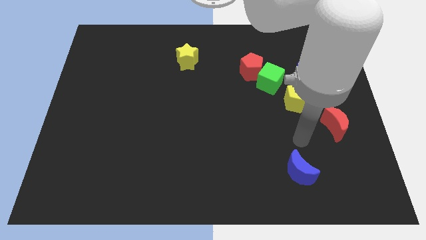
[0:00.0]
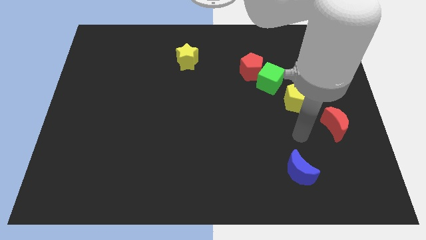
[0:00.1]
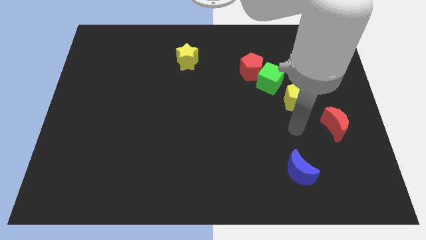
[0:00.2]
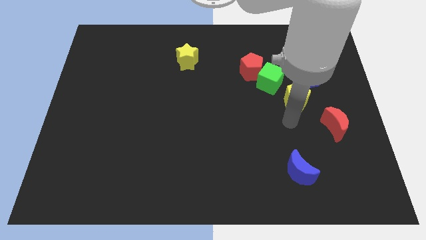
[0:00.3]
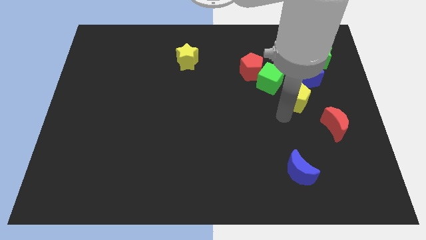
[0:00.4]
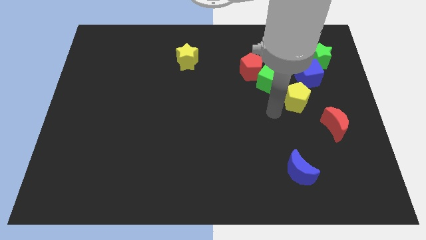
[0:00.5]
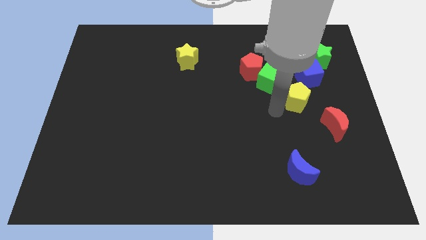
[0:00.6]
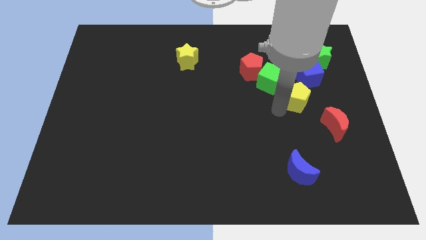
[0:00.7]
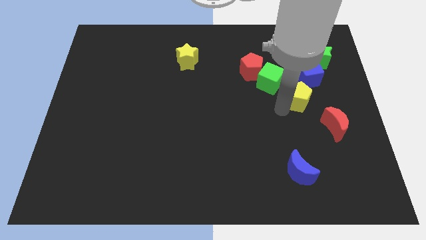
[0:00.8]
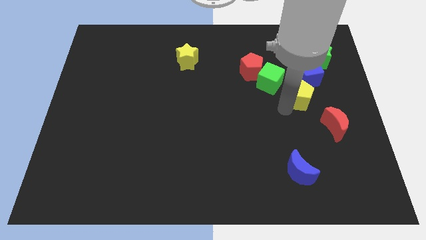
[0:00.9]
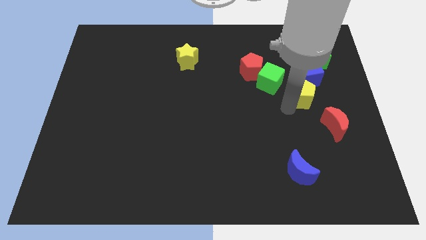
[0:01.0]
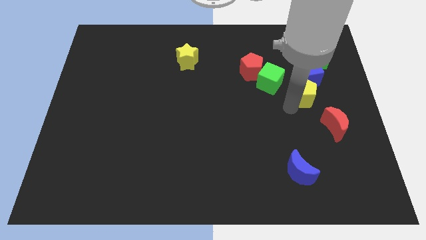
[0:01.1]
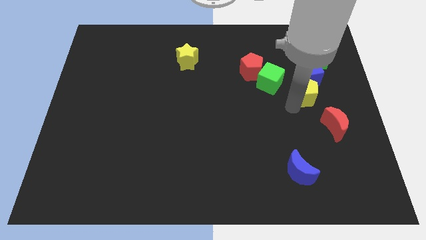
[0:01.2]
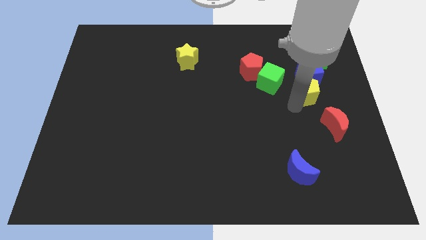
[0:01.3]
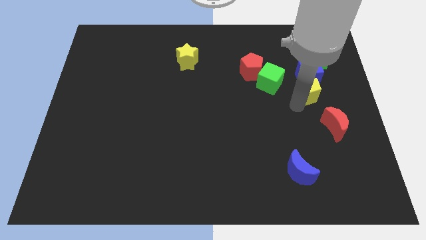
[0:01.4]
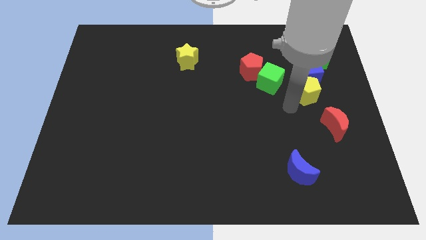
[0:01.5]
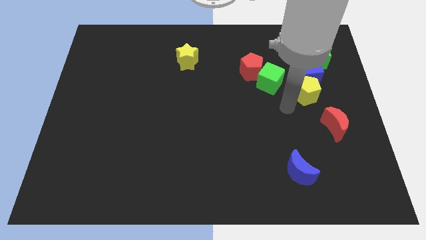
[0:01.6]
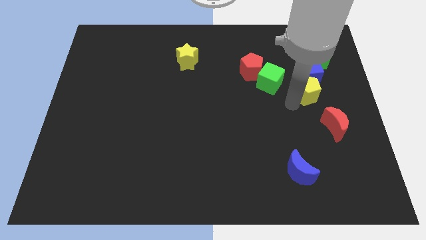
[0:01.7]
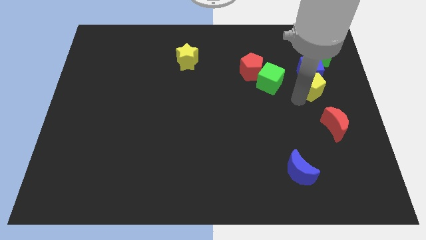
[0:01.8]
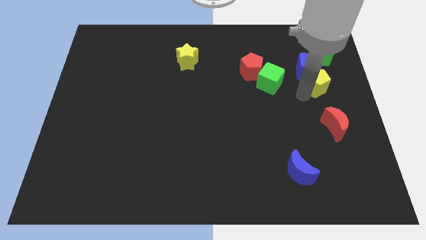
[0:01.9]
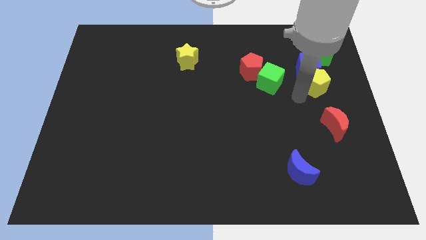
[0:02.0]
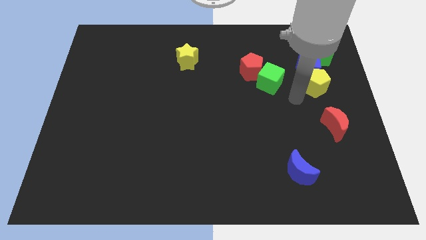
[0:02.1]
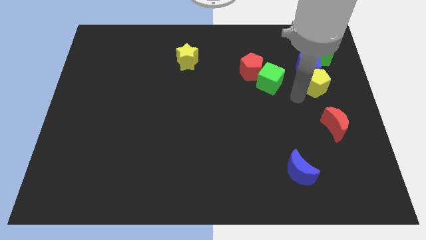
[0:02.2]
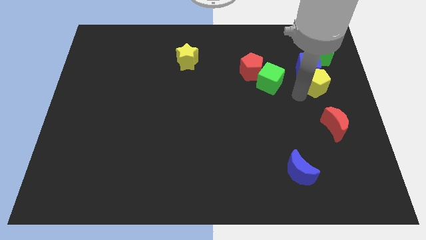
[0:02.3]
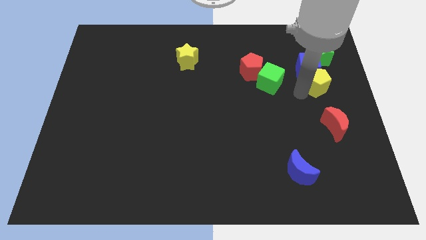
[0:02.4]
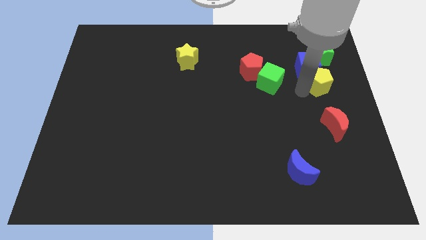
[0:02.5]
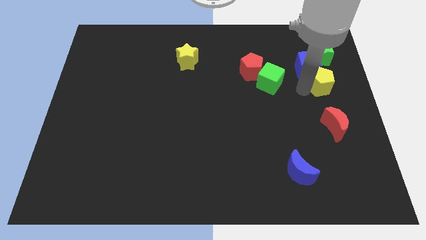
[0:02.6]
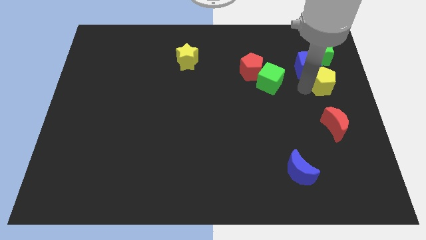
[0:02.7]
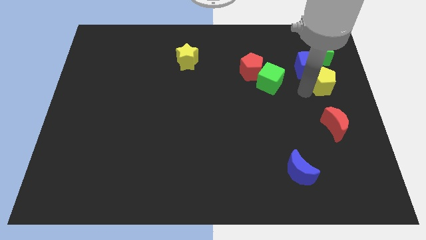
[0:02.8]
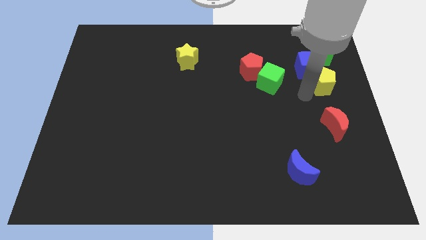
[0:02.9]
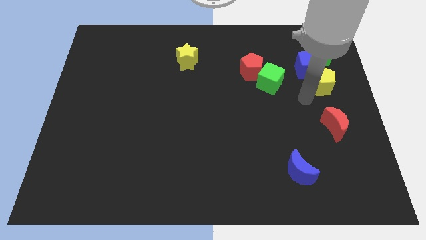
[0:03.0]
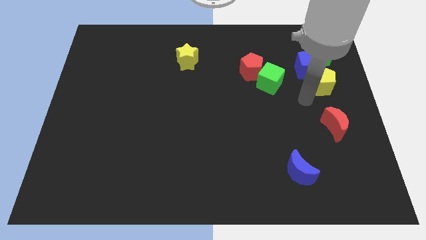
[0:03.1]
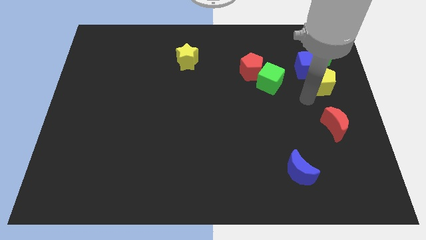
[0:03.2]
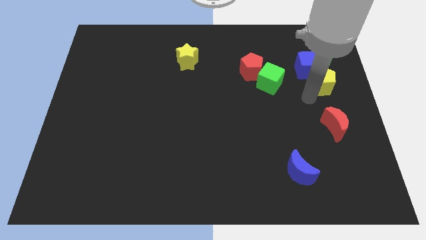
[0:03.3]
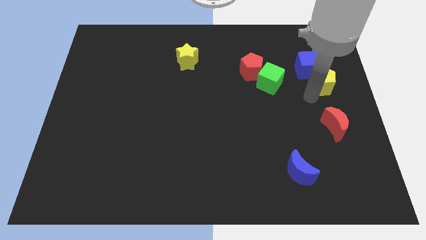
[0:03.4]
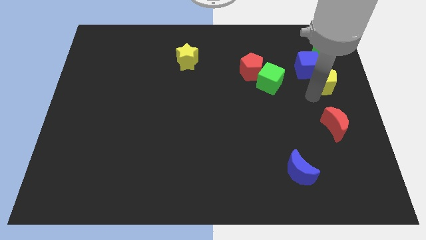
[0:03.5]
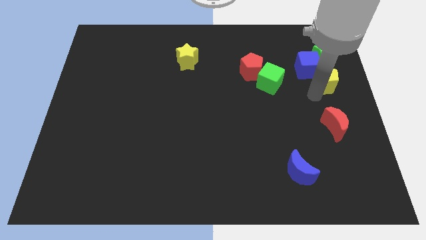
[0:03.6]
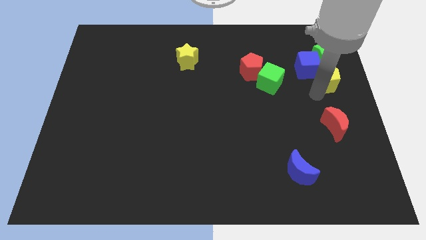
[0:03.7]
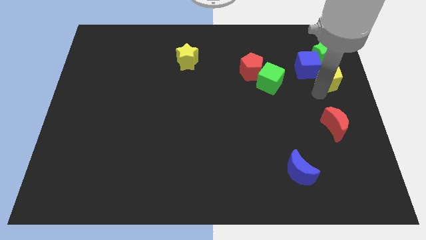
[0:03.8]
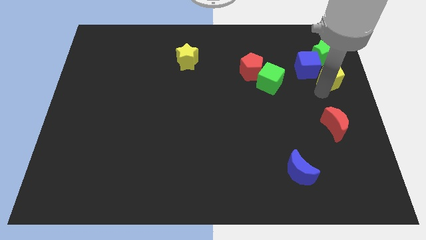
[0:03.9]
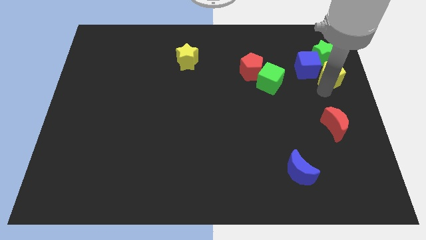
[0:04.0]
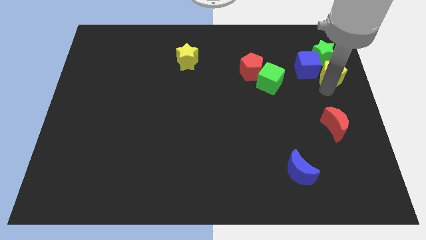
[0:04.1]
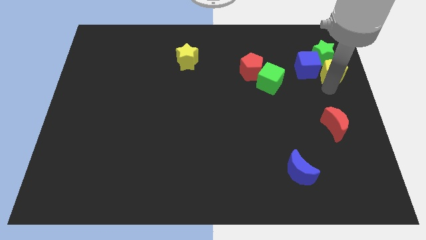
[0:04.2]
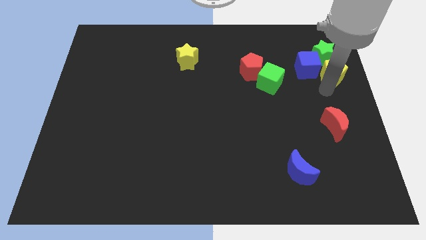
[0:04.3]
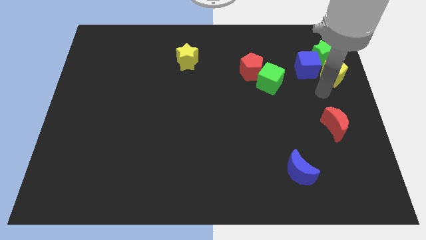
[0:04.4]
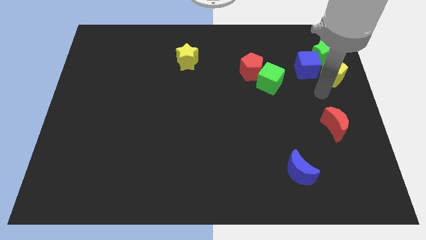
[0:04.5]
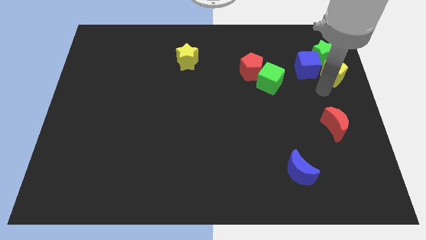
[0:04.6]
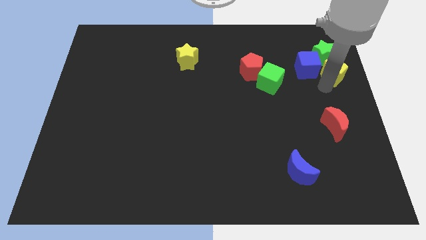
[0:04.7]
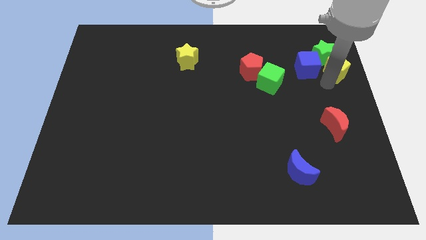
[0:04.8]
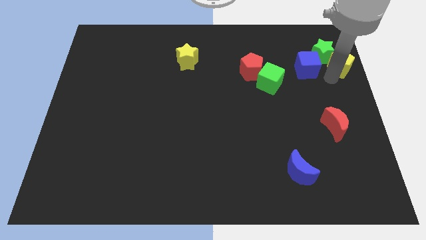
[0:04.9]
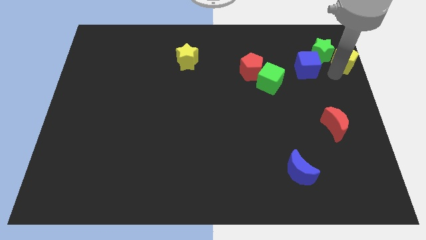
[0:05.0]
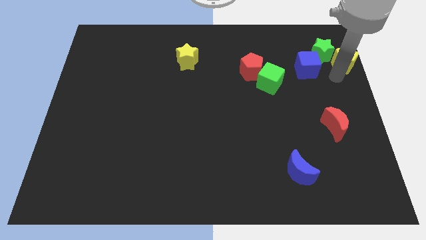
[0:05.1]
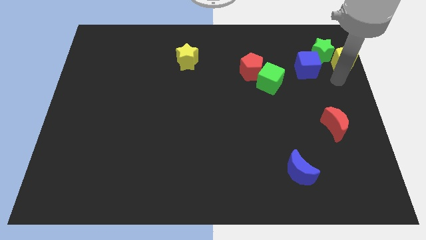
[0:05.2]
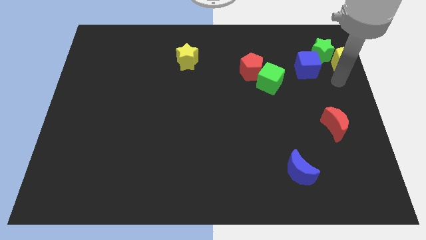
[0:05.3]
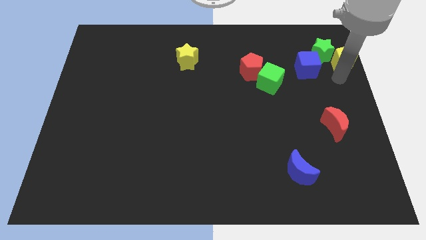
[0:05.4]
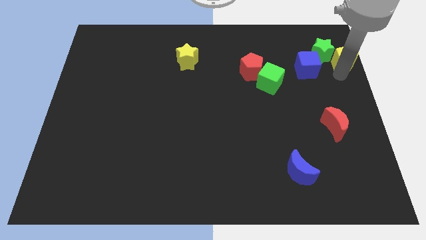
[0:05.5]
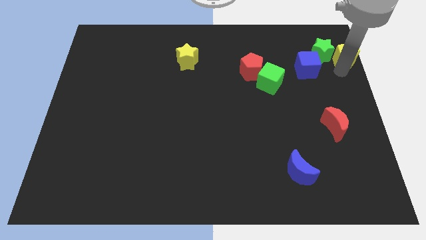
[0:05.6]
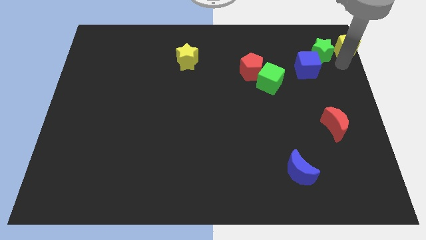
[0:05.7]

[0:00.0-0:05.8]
put the yellow pentagon to the top right corner

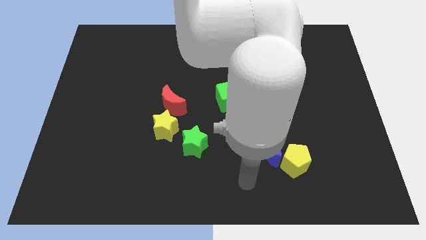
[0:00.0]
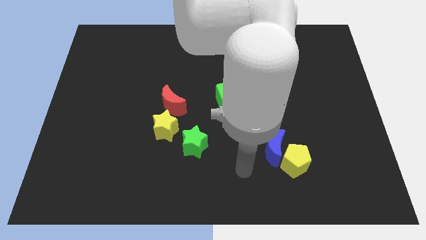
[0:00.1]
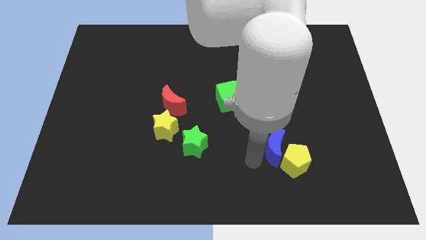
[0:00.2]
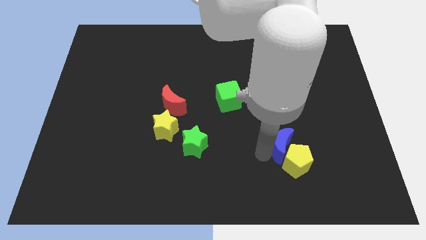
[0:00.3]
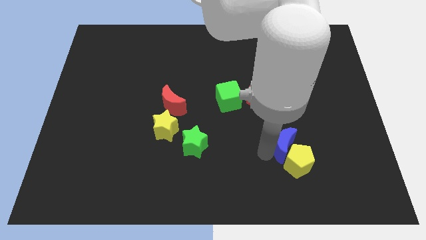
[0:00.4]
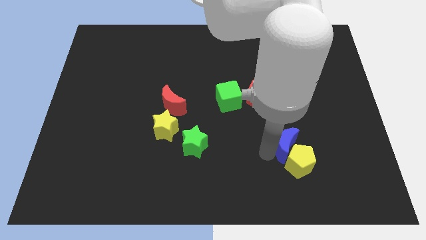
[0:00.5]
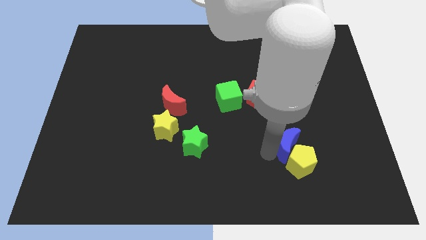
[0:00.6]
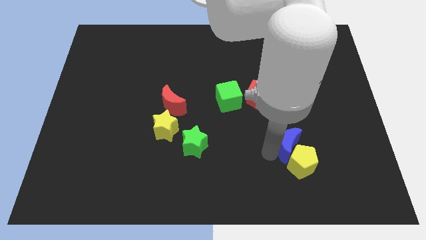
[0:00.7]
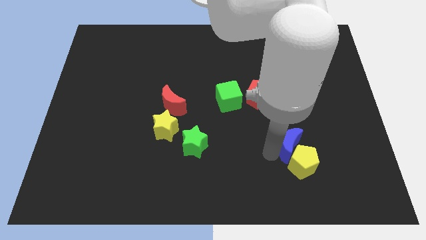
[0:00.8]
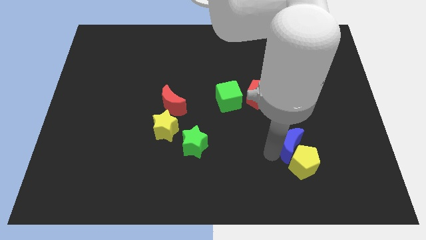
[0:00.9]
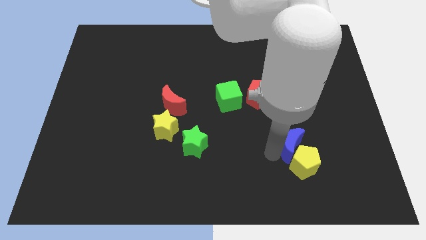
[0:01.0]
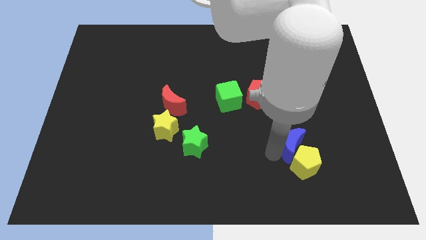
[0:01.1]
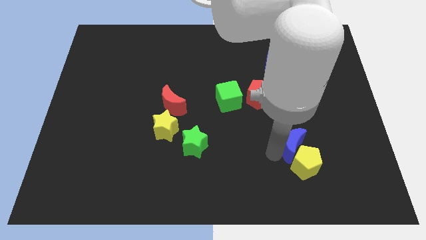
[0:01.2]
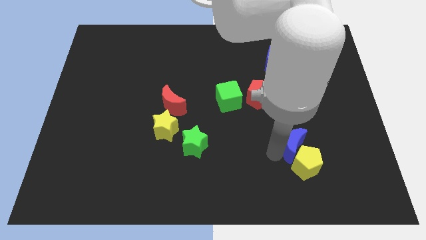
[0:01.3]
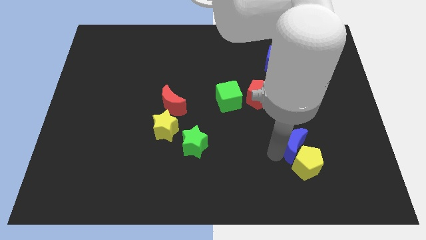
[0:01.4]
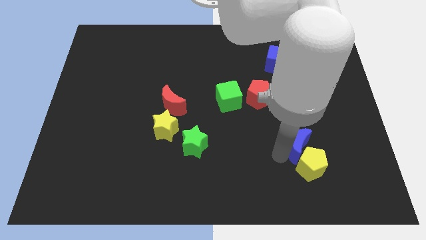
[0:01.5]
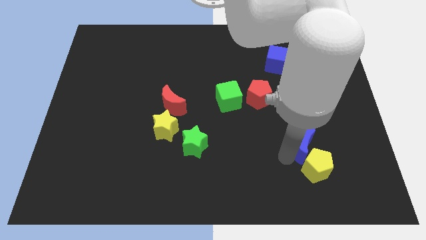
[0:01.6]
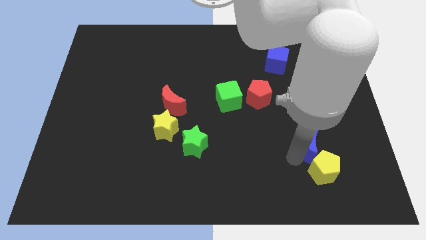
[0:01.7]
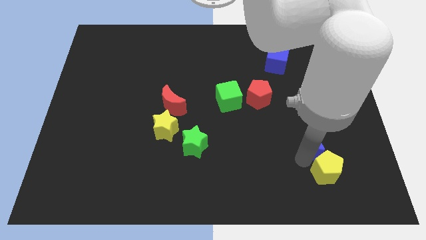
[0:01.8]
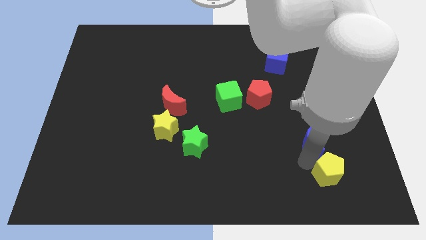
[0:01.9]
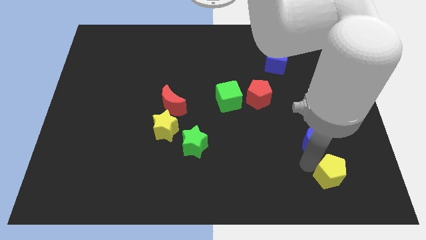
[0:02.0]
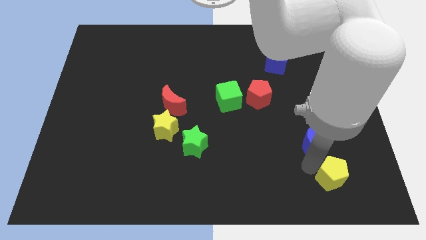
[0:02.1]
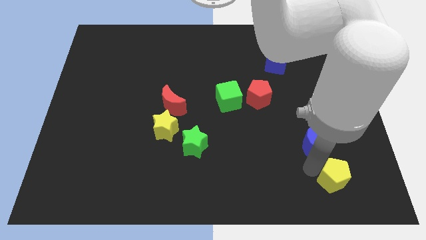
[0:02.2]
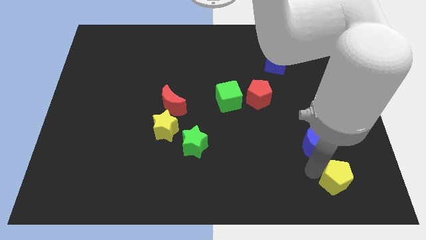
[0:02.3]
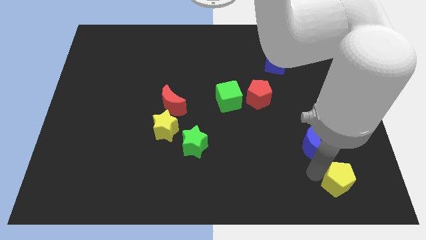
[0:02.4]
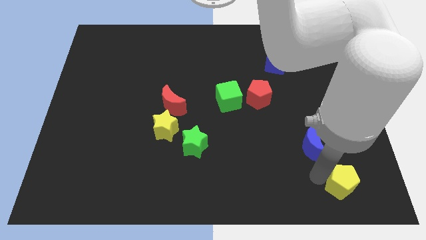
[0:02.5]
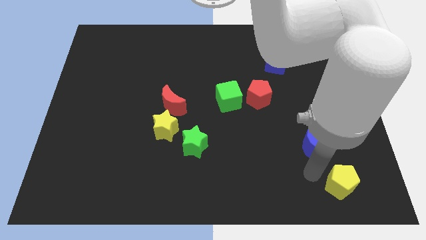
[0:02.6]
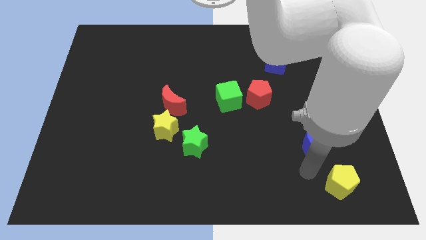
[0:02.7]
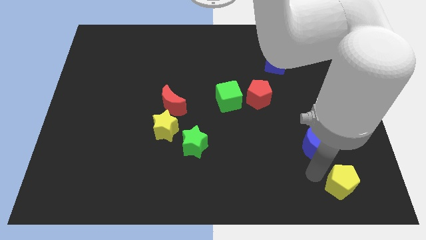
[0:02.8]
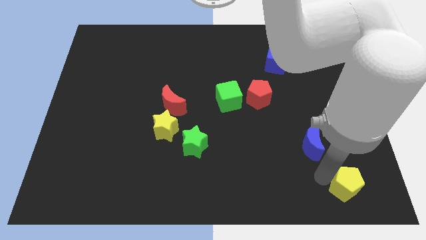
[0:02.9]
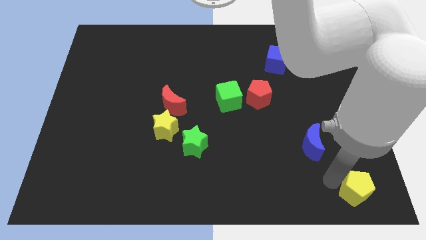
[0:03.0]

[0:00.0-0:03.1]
slide the yellow pentagon to the bottom right
